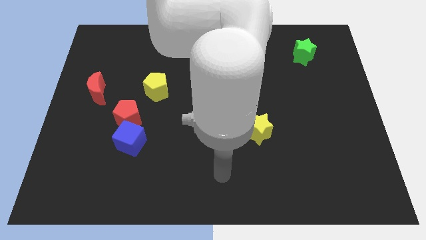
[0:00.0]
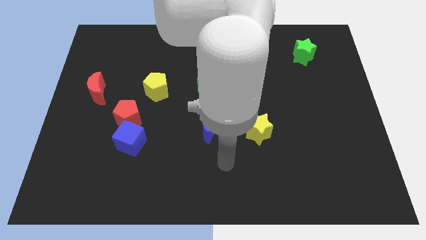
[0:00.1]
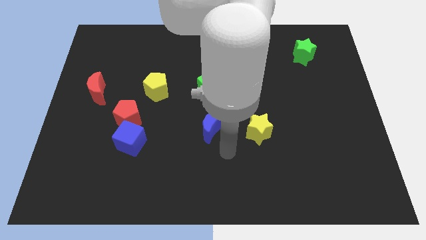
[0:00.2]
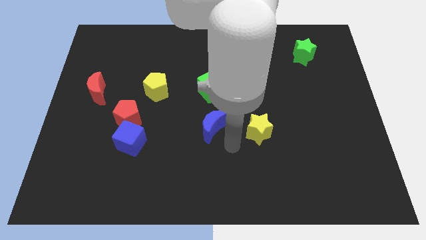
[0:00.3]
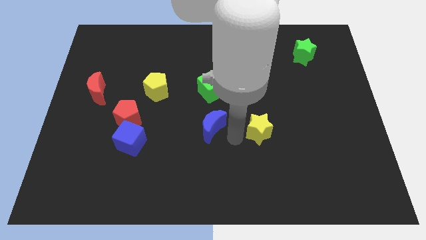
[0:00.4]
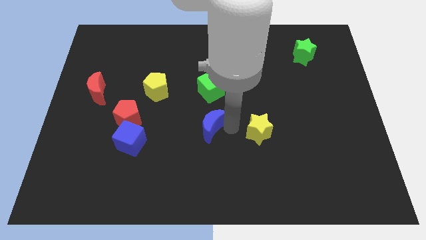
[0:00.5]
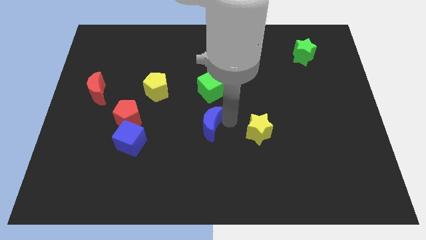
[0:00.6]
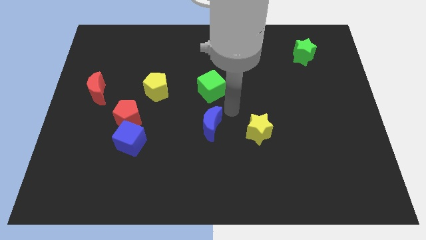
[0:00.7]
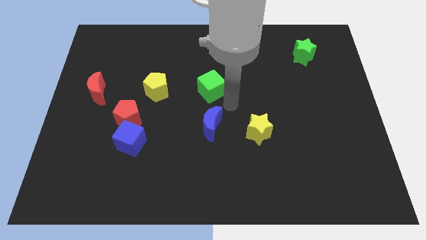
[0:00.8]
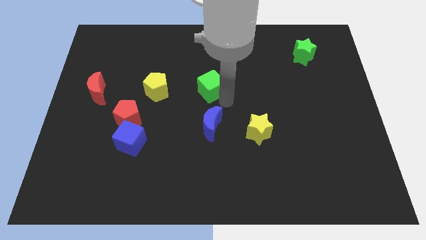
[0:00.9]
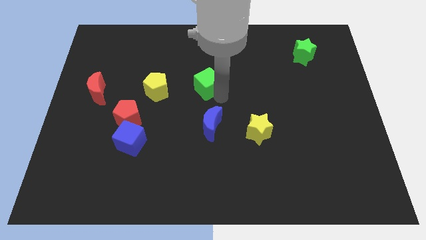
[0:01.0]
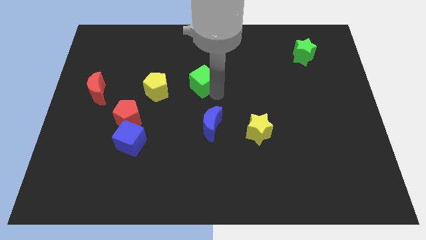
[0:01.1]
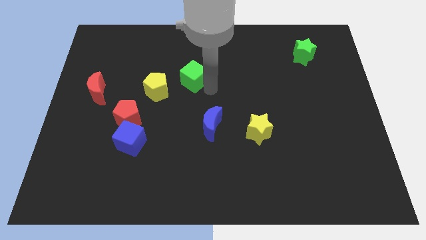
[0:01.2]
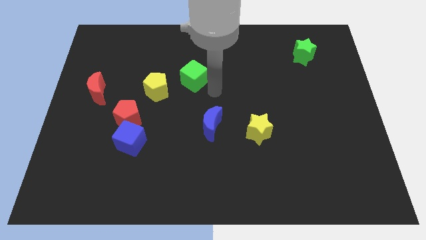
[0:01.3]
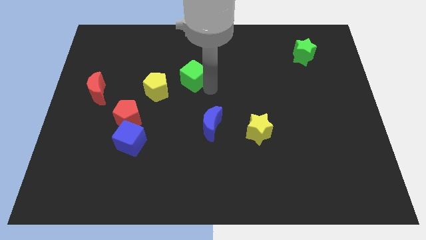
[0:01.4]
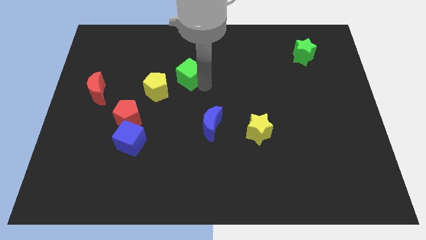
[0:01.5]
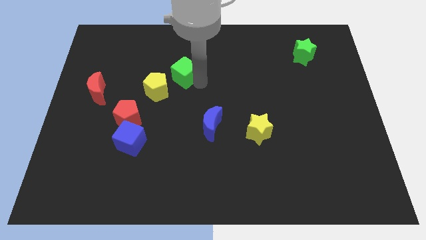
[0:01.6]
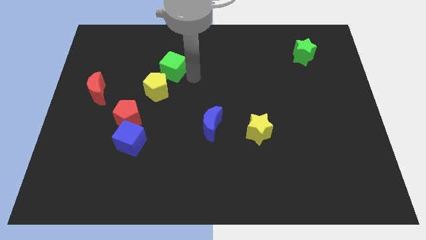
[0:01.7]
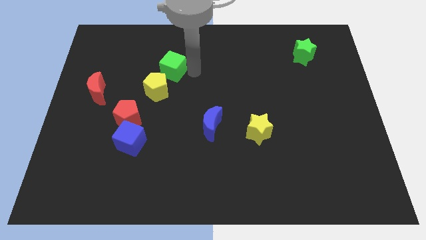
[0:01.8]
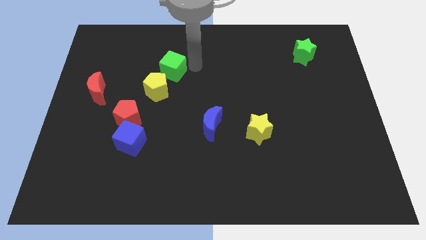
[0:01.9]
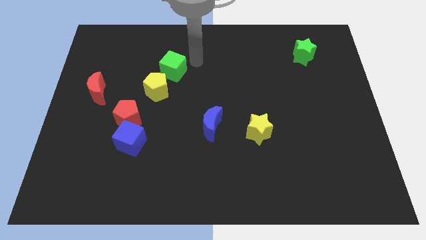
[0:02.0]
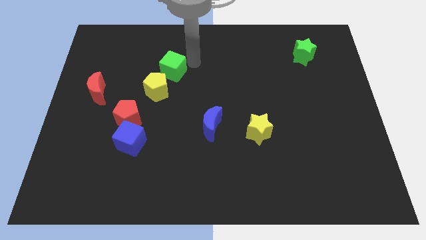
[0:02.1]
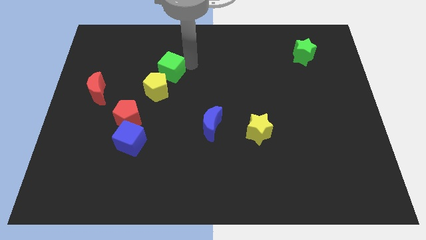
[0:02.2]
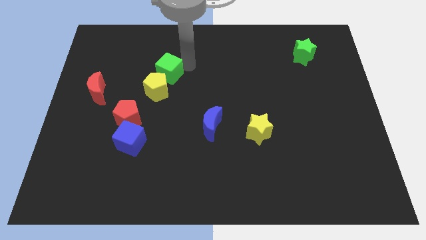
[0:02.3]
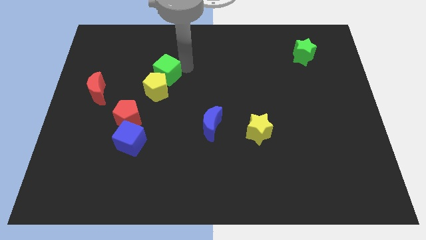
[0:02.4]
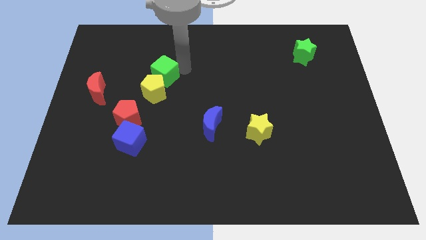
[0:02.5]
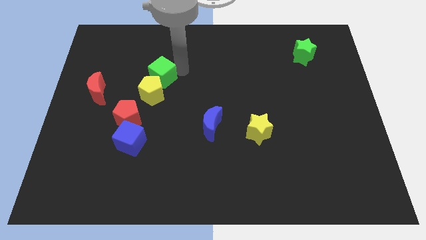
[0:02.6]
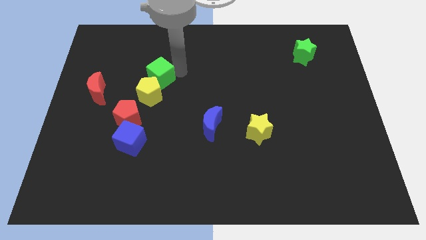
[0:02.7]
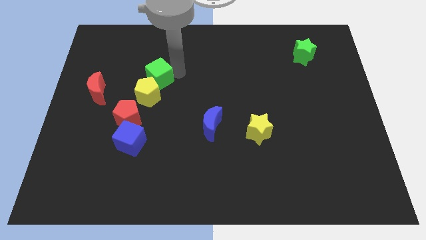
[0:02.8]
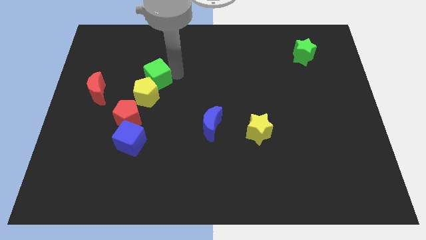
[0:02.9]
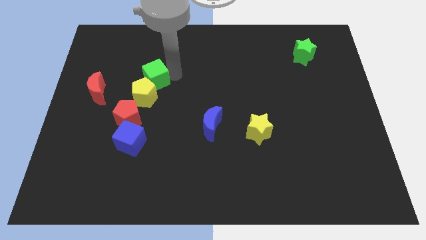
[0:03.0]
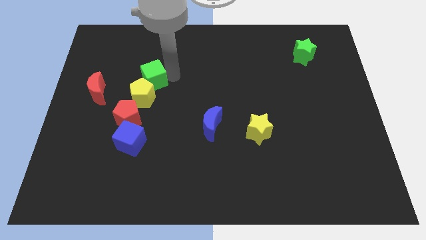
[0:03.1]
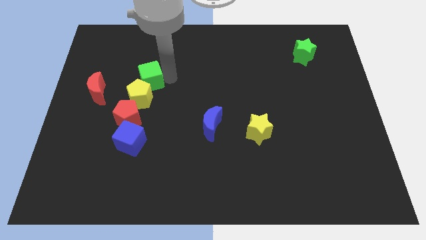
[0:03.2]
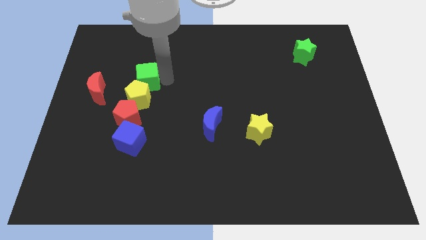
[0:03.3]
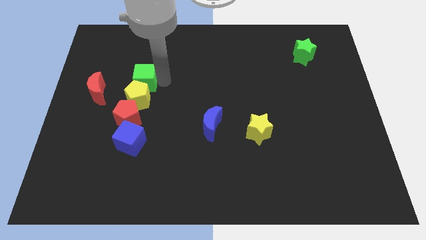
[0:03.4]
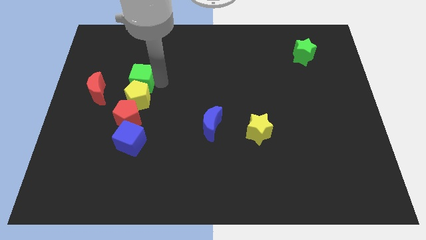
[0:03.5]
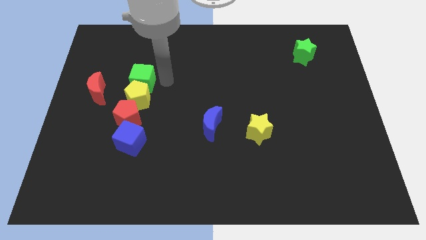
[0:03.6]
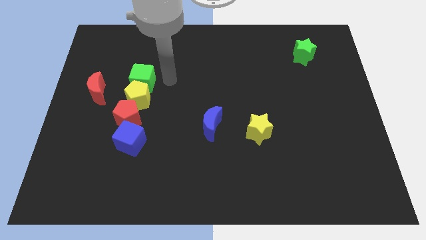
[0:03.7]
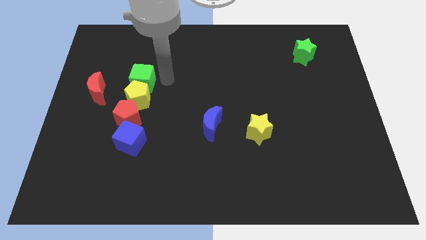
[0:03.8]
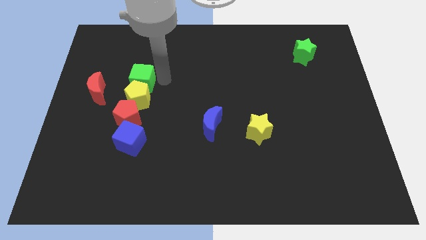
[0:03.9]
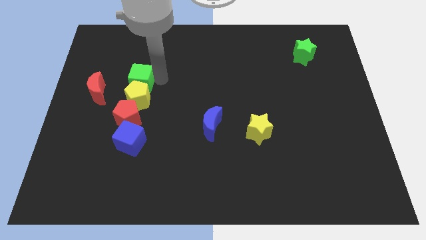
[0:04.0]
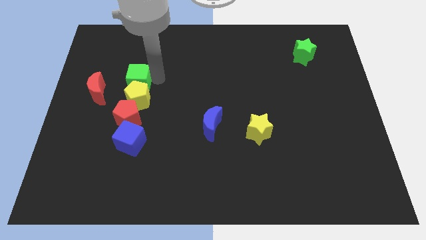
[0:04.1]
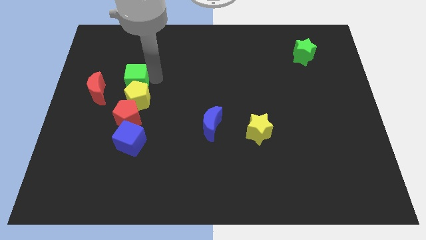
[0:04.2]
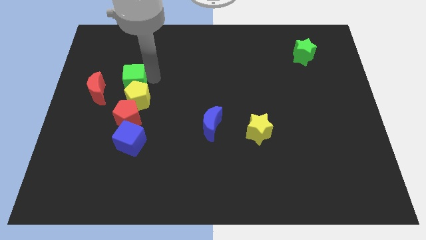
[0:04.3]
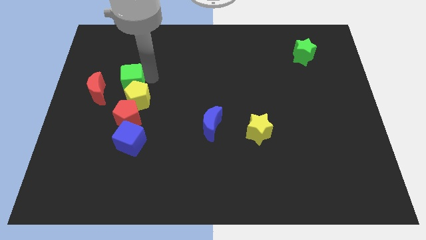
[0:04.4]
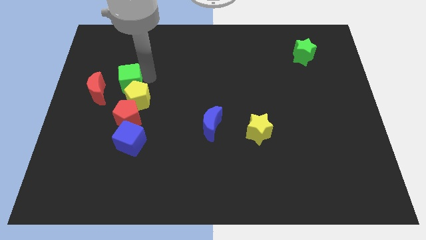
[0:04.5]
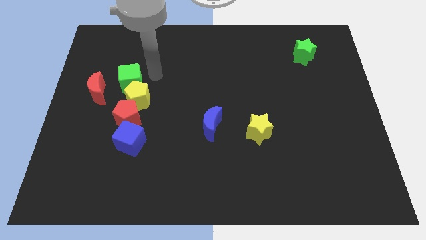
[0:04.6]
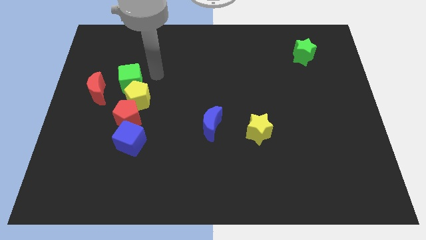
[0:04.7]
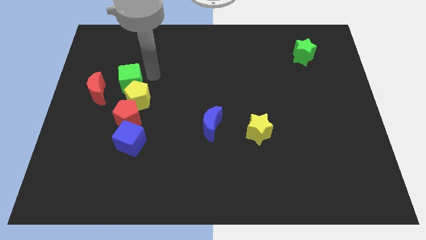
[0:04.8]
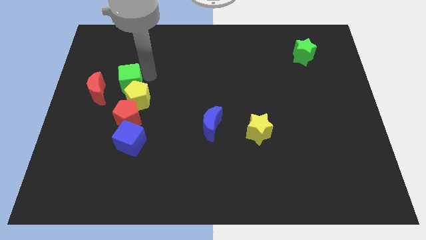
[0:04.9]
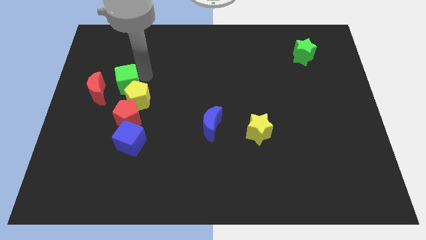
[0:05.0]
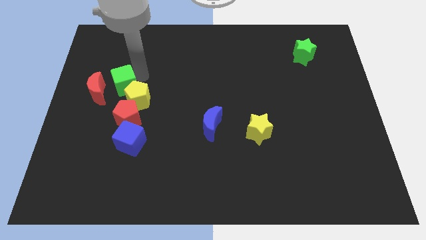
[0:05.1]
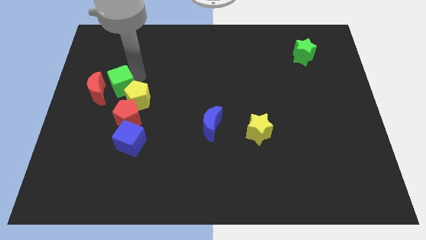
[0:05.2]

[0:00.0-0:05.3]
push the green cube close to the red moon

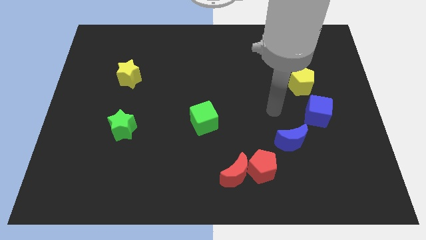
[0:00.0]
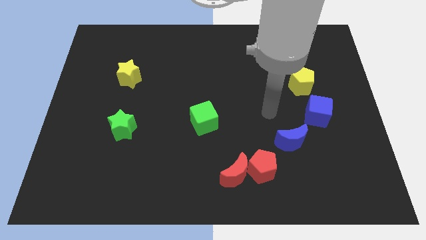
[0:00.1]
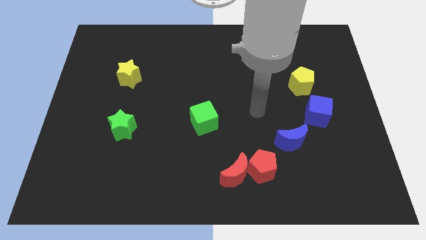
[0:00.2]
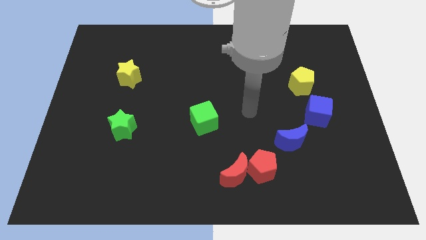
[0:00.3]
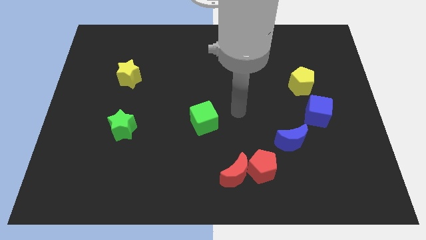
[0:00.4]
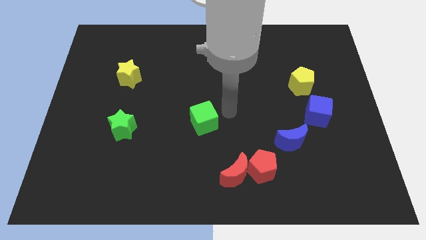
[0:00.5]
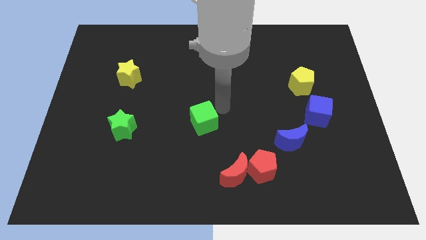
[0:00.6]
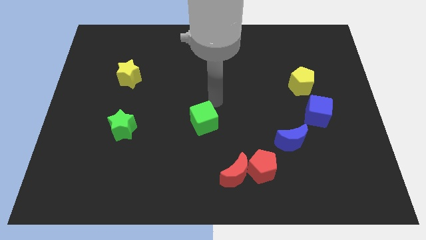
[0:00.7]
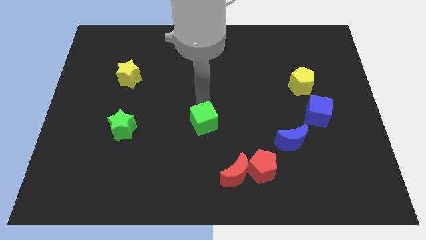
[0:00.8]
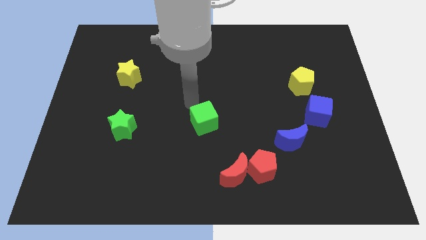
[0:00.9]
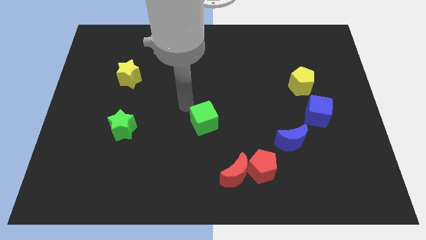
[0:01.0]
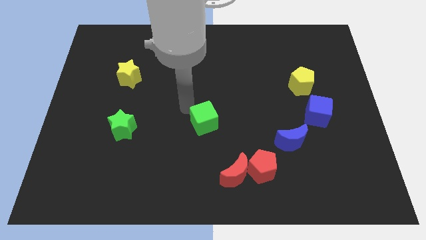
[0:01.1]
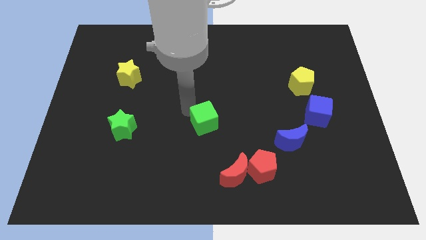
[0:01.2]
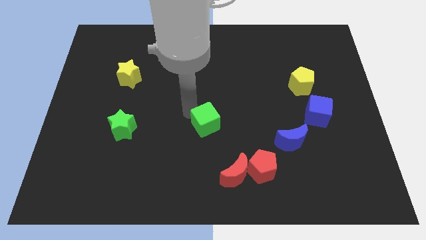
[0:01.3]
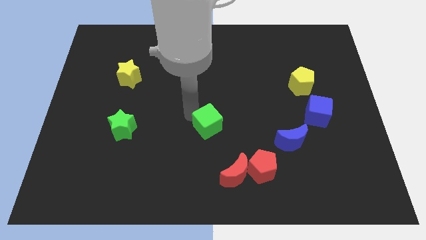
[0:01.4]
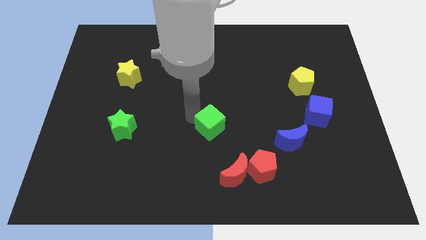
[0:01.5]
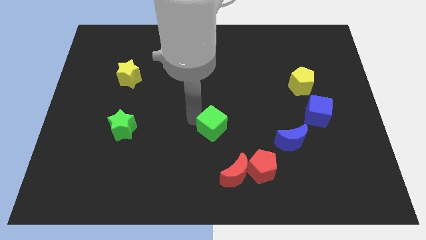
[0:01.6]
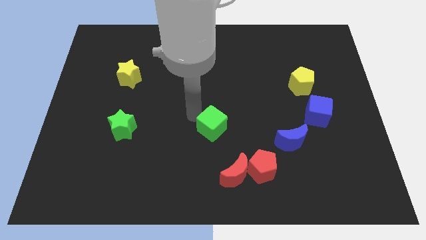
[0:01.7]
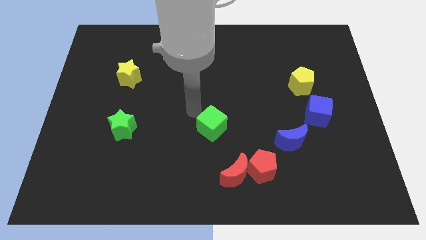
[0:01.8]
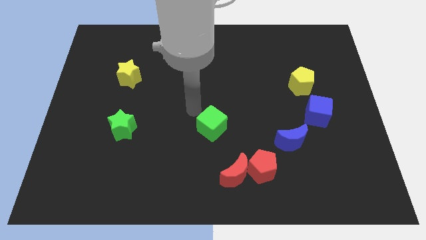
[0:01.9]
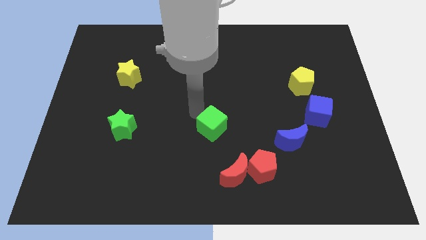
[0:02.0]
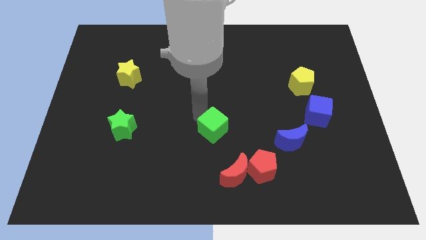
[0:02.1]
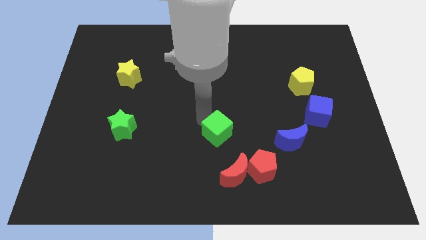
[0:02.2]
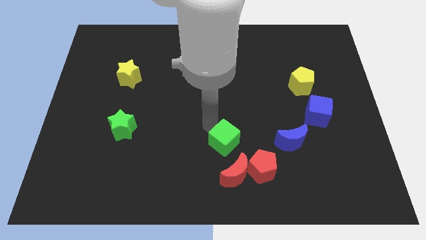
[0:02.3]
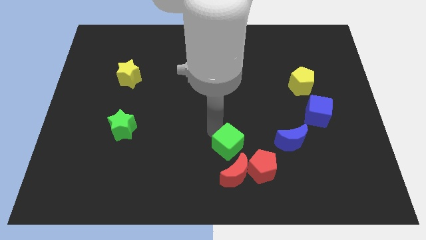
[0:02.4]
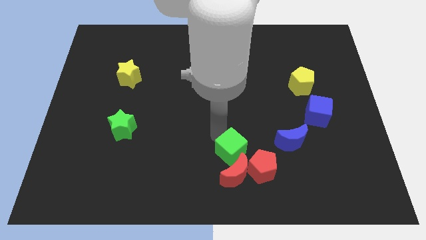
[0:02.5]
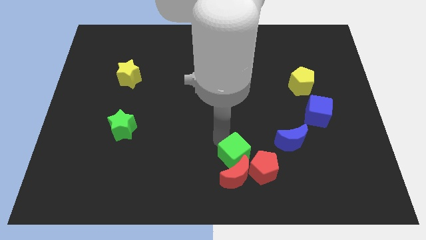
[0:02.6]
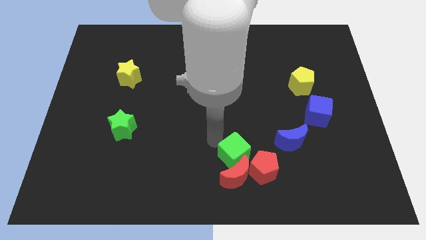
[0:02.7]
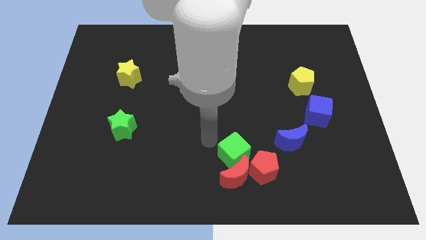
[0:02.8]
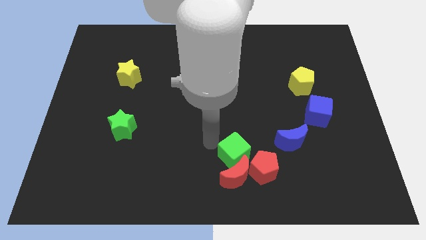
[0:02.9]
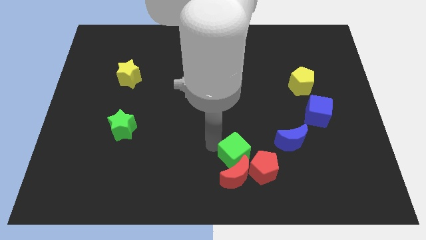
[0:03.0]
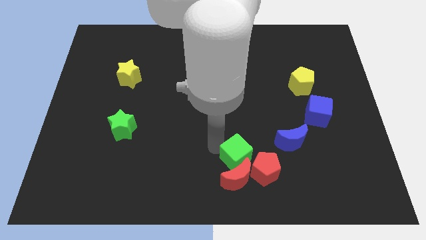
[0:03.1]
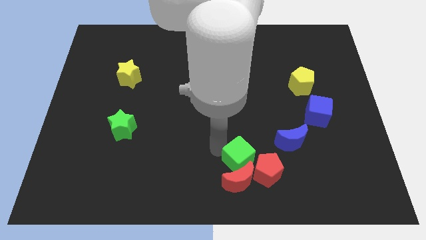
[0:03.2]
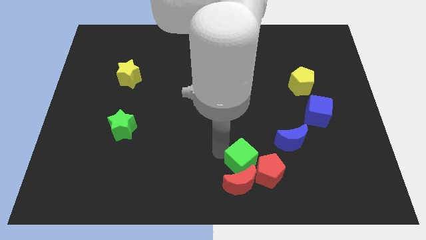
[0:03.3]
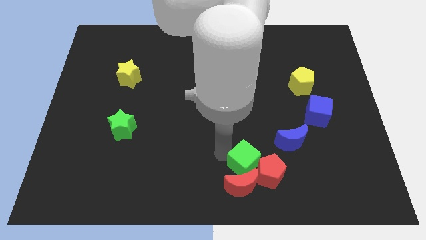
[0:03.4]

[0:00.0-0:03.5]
push the green cube close to the red pentagon
